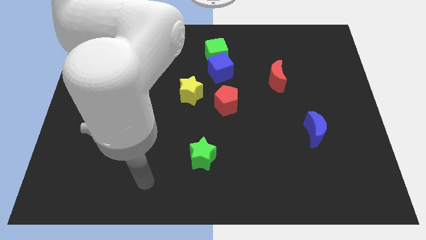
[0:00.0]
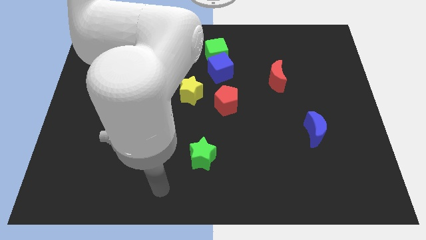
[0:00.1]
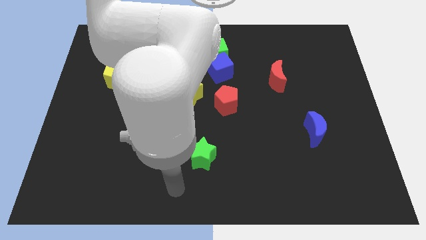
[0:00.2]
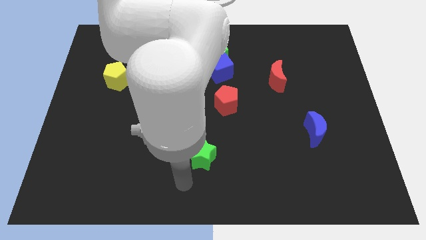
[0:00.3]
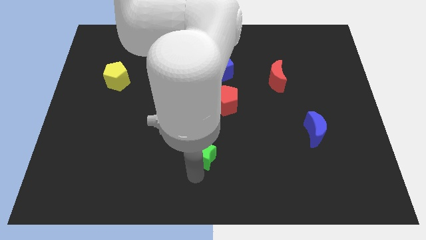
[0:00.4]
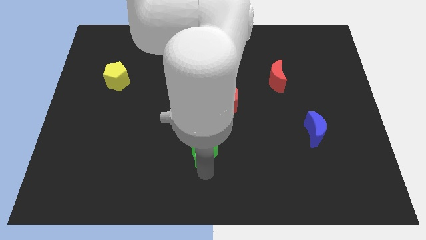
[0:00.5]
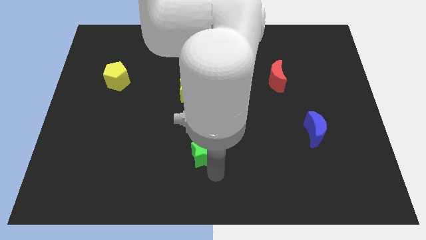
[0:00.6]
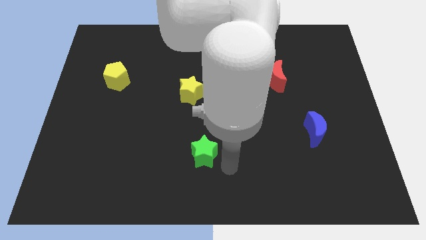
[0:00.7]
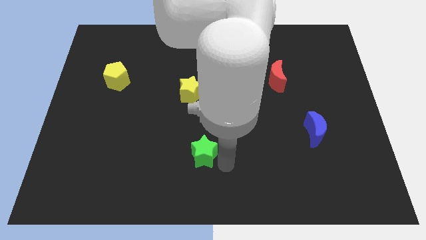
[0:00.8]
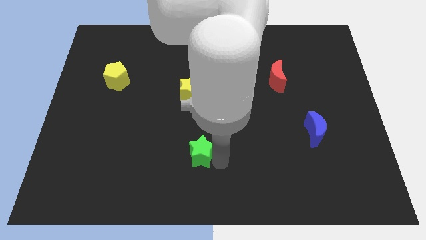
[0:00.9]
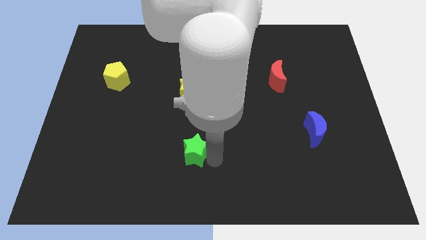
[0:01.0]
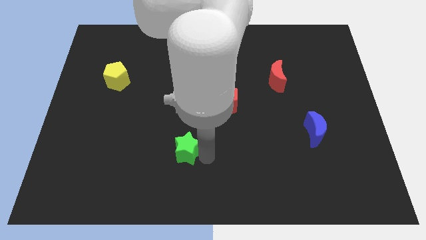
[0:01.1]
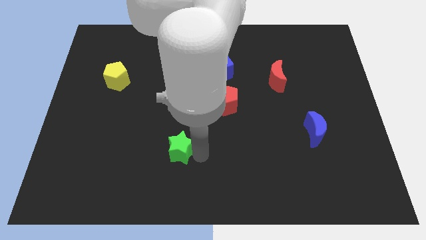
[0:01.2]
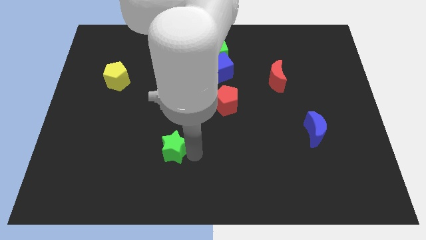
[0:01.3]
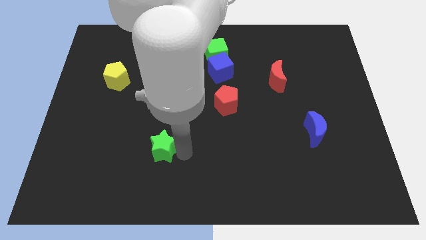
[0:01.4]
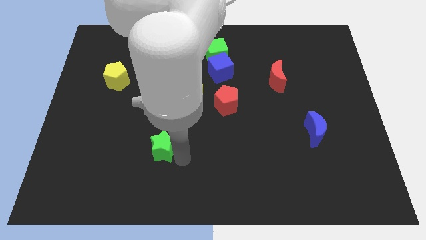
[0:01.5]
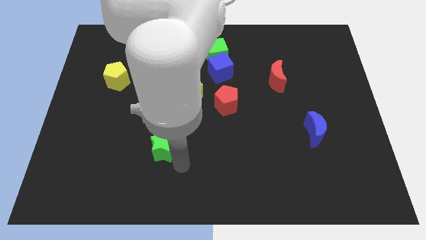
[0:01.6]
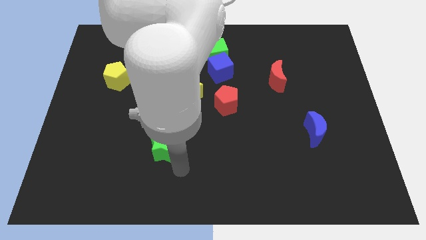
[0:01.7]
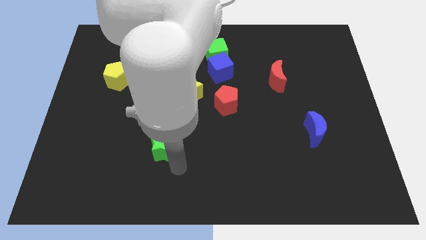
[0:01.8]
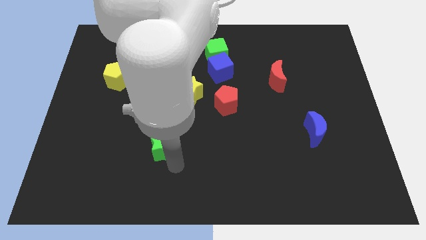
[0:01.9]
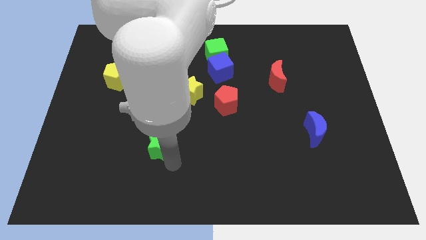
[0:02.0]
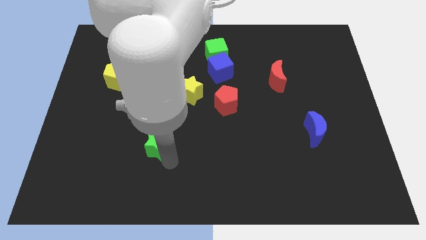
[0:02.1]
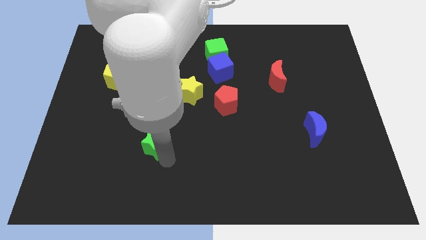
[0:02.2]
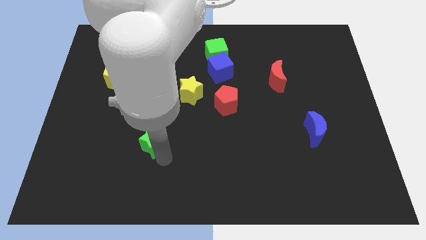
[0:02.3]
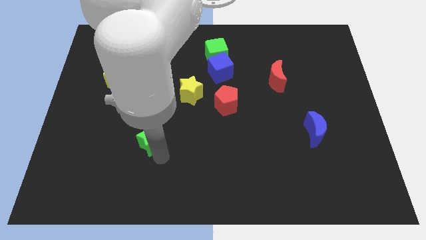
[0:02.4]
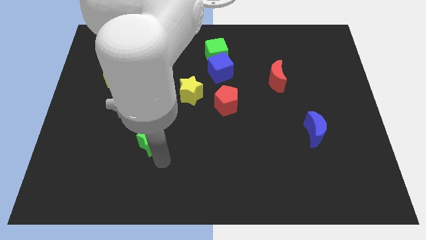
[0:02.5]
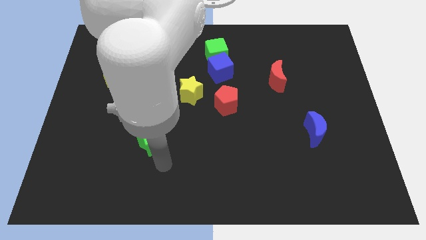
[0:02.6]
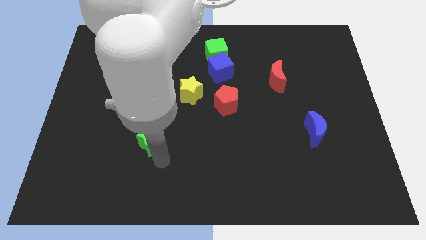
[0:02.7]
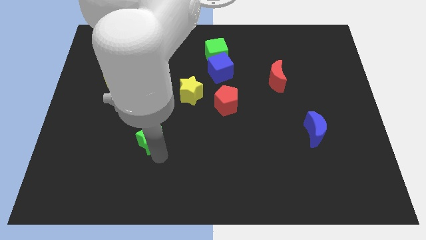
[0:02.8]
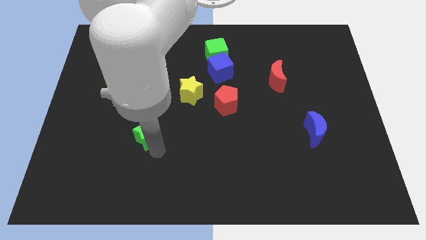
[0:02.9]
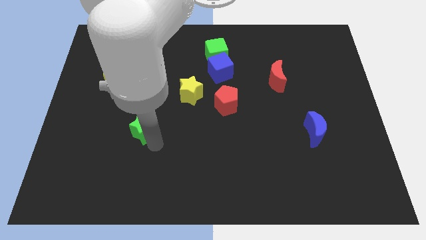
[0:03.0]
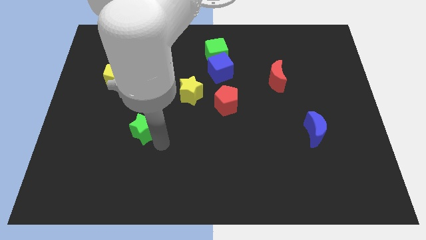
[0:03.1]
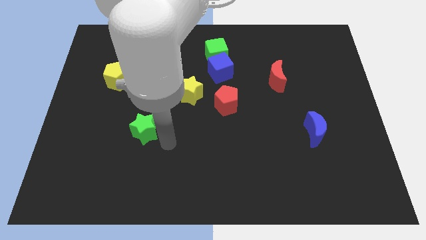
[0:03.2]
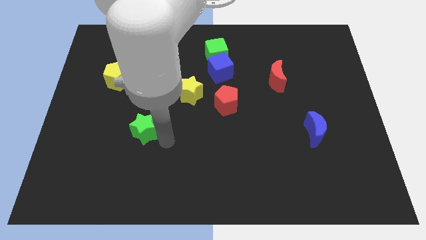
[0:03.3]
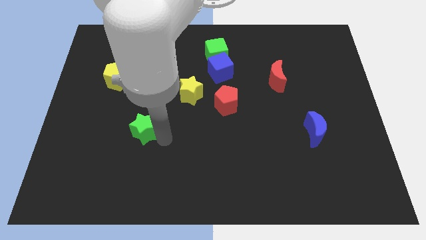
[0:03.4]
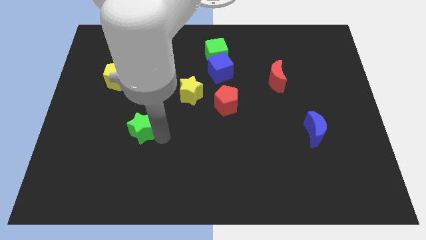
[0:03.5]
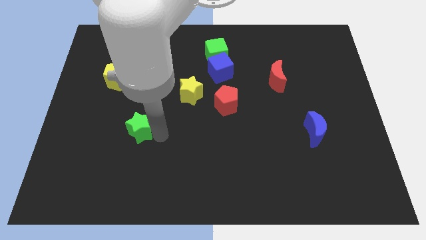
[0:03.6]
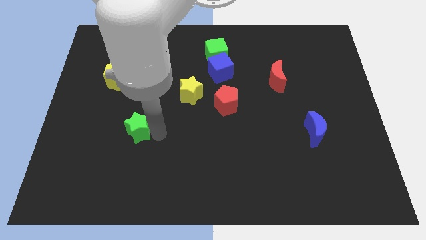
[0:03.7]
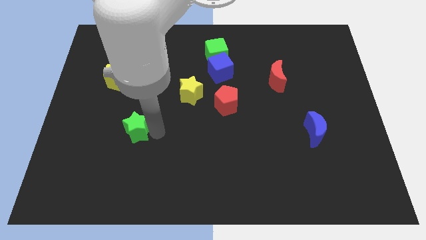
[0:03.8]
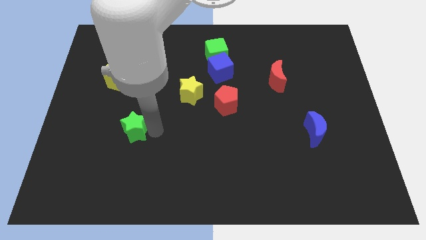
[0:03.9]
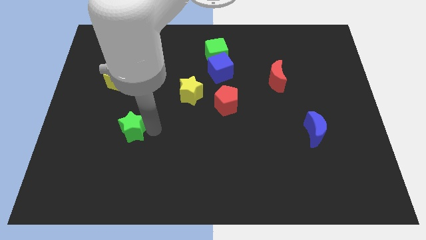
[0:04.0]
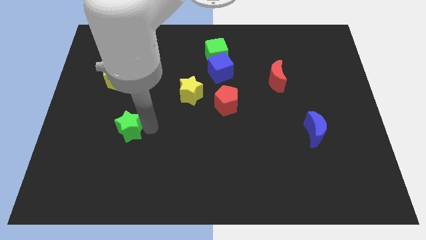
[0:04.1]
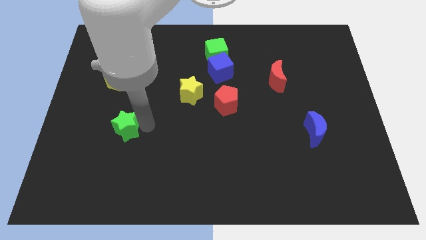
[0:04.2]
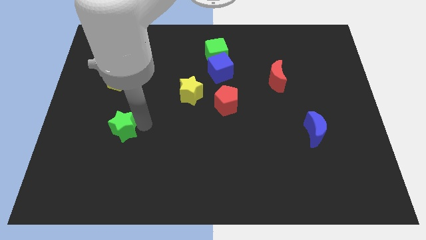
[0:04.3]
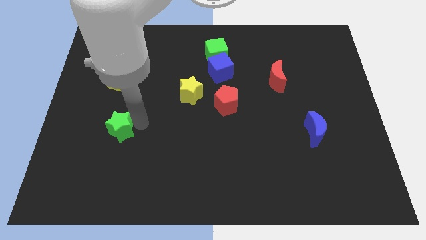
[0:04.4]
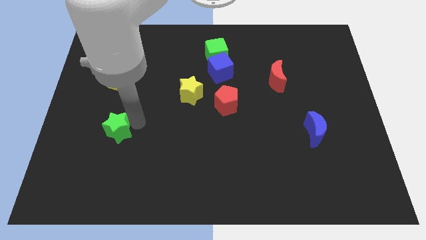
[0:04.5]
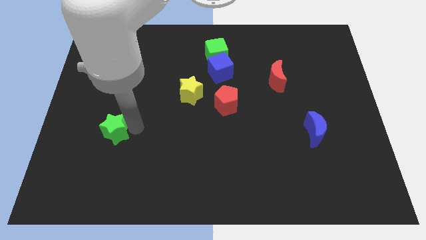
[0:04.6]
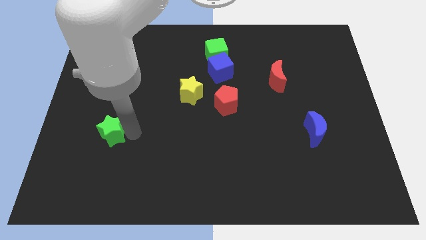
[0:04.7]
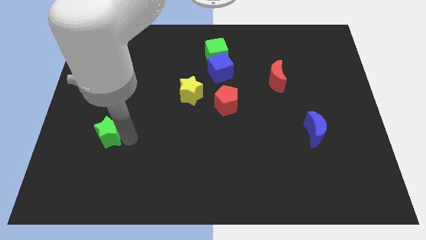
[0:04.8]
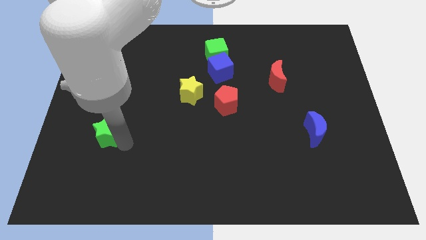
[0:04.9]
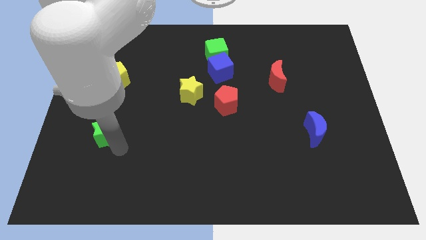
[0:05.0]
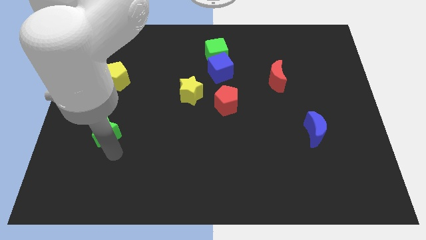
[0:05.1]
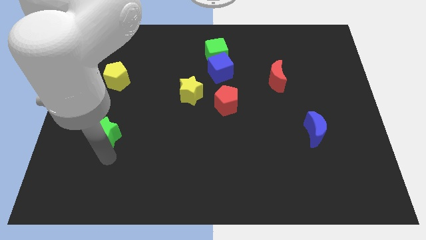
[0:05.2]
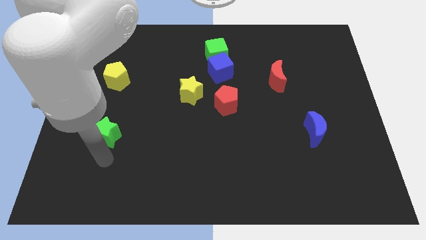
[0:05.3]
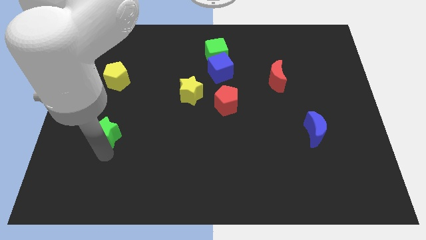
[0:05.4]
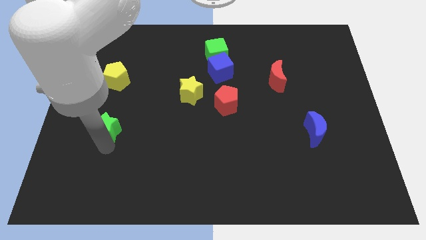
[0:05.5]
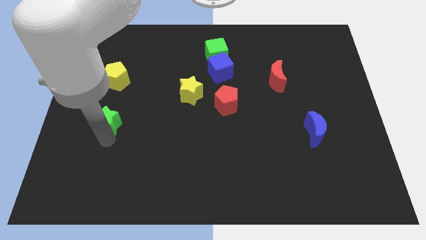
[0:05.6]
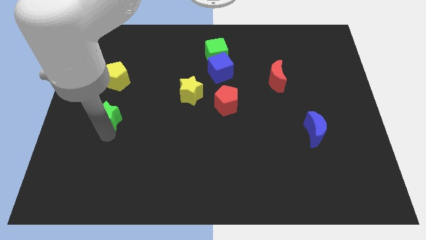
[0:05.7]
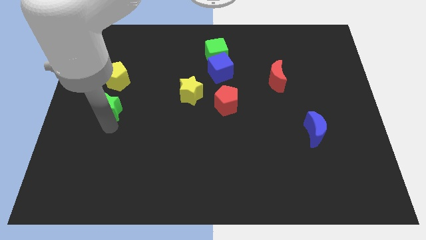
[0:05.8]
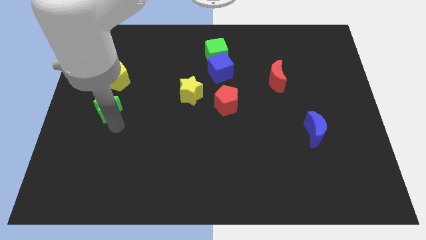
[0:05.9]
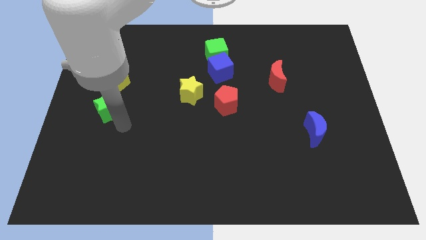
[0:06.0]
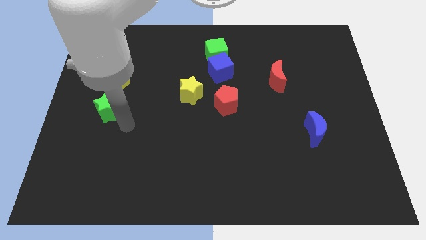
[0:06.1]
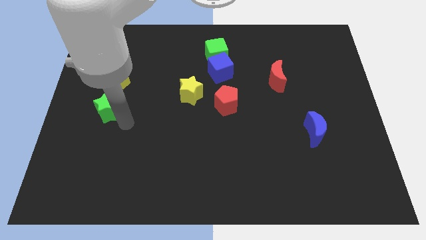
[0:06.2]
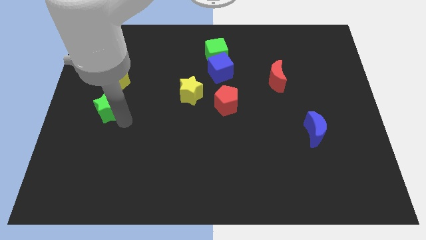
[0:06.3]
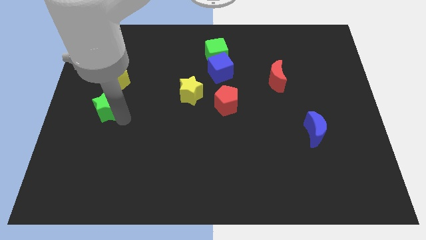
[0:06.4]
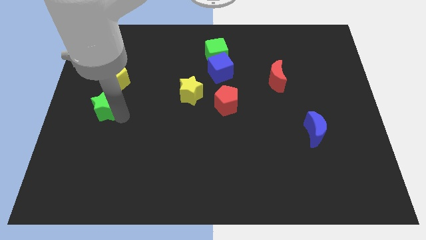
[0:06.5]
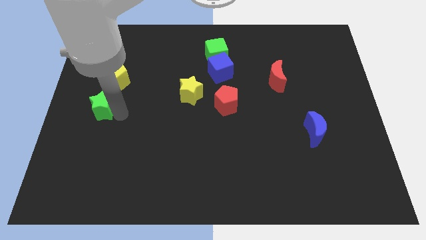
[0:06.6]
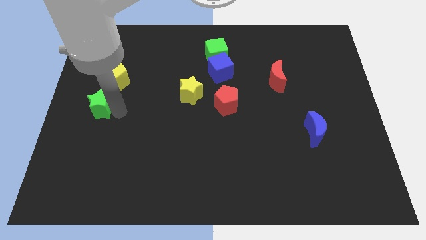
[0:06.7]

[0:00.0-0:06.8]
push the green star diagonally down and to the left of the yellow pentagon

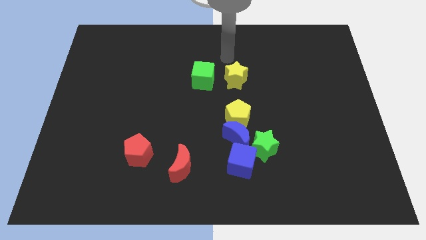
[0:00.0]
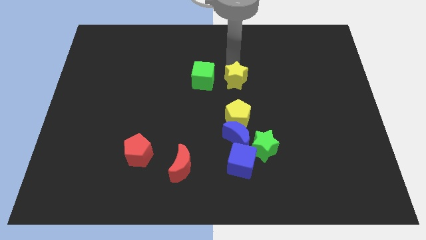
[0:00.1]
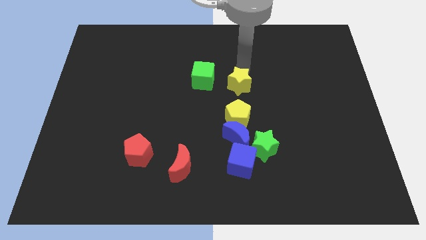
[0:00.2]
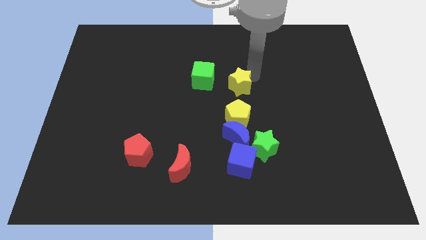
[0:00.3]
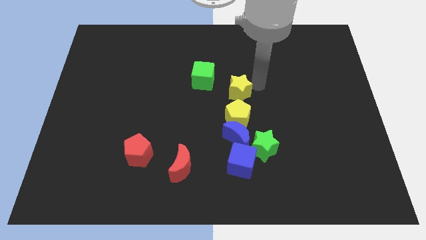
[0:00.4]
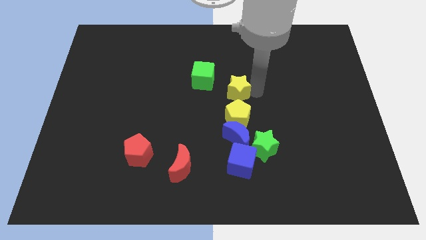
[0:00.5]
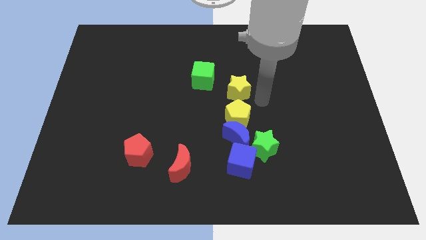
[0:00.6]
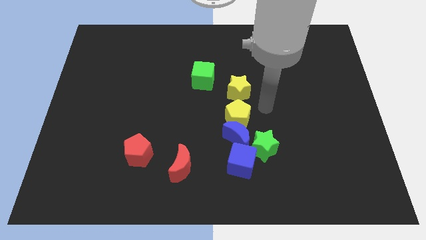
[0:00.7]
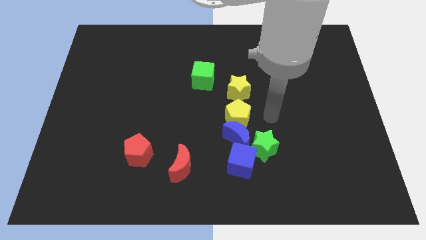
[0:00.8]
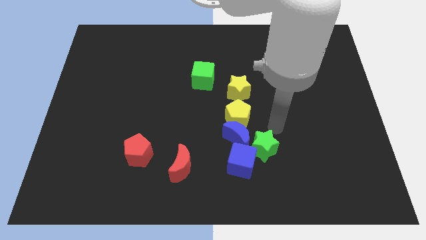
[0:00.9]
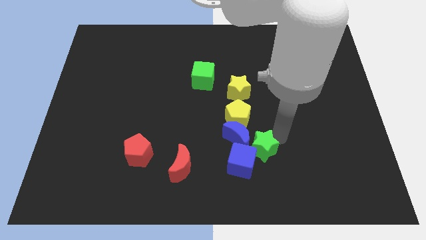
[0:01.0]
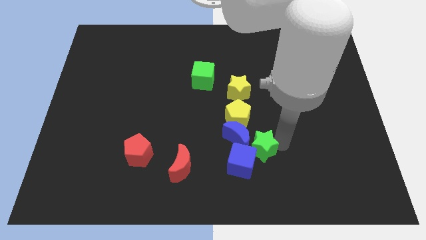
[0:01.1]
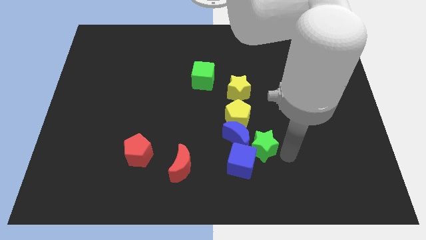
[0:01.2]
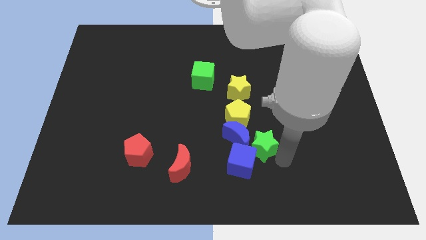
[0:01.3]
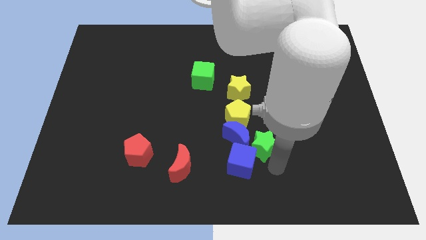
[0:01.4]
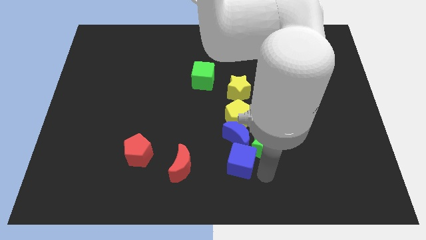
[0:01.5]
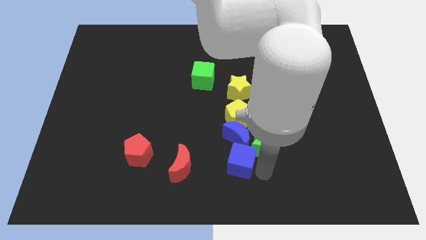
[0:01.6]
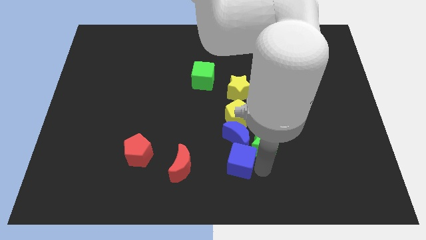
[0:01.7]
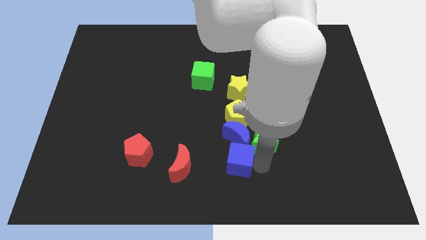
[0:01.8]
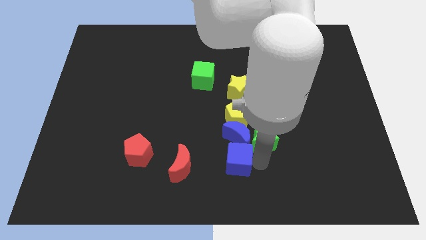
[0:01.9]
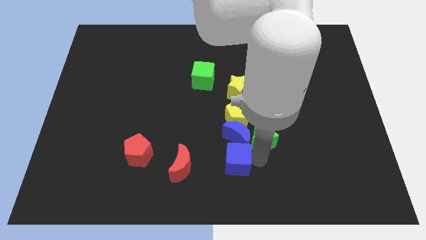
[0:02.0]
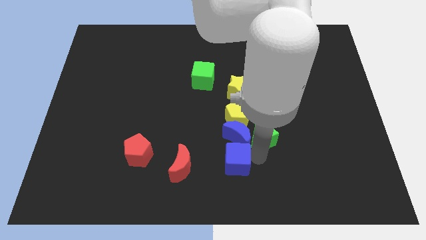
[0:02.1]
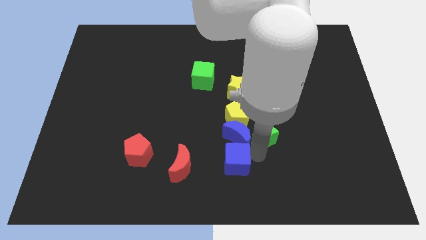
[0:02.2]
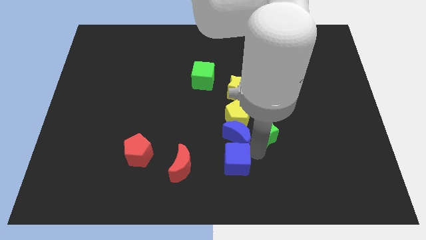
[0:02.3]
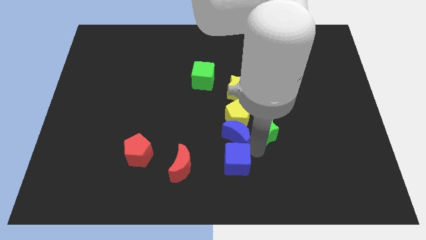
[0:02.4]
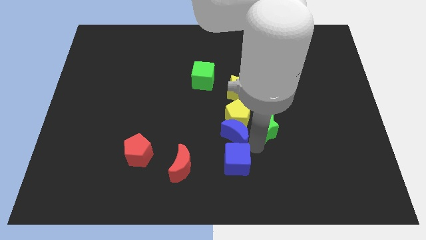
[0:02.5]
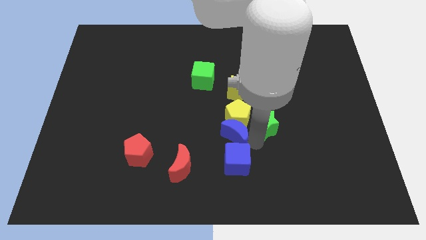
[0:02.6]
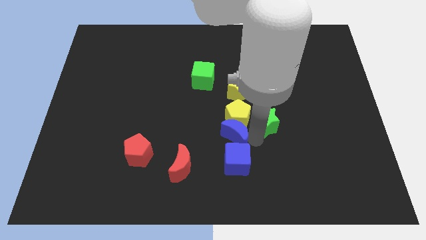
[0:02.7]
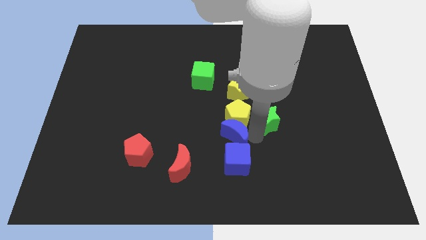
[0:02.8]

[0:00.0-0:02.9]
put the green star to the top right of the yellow pentagon
